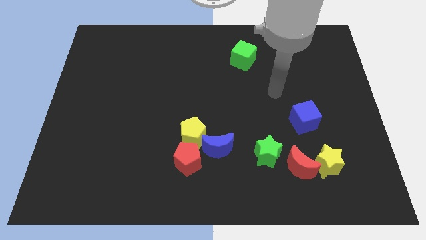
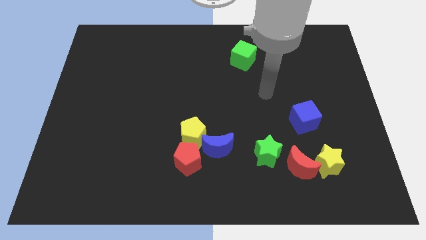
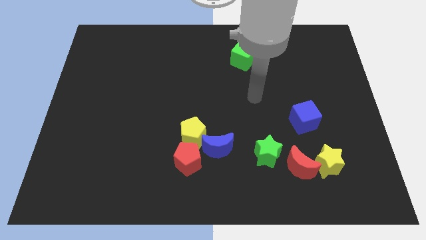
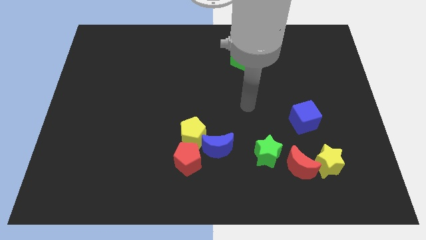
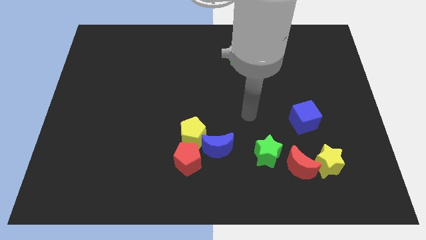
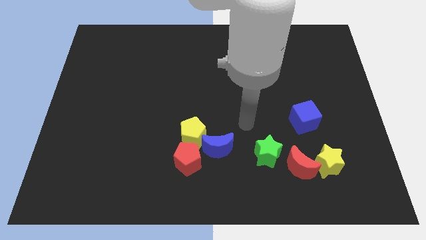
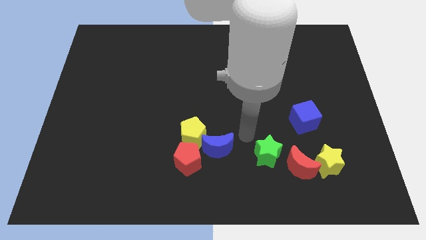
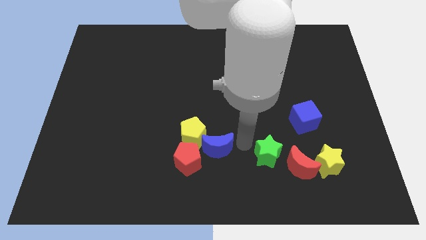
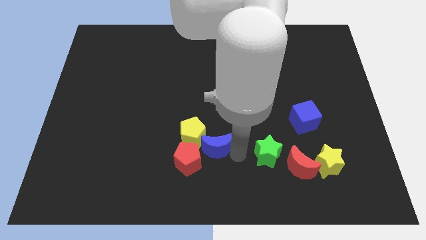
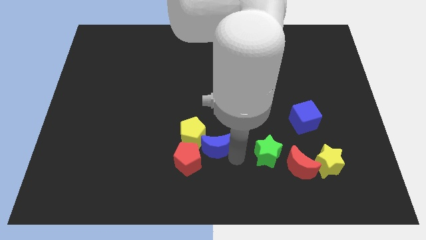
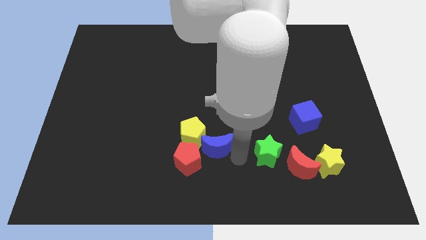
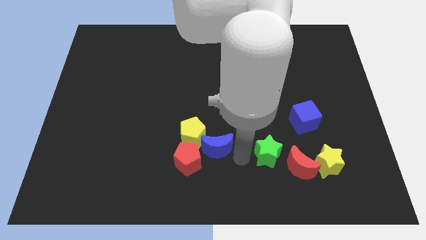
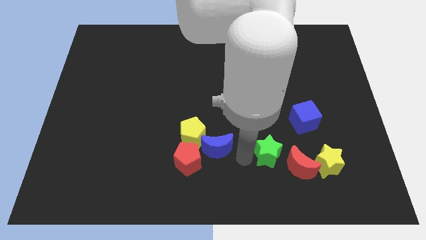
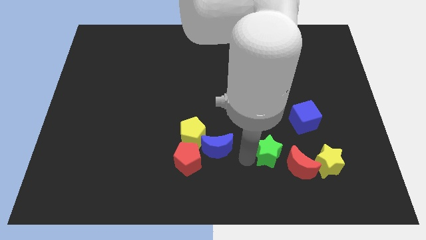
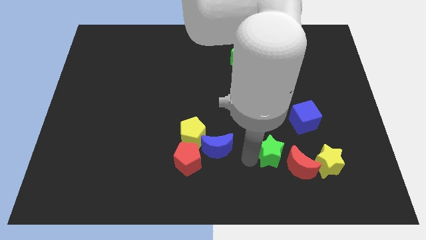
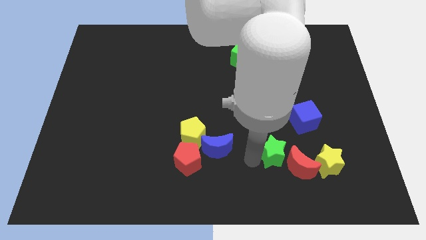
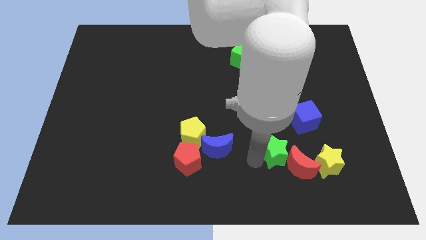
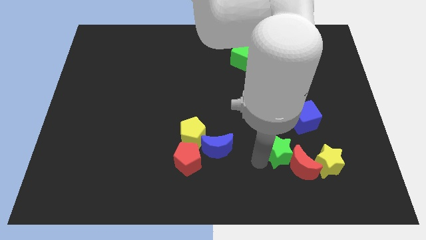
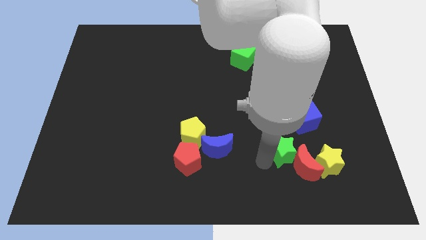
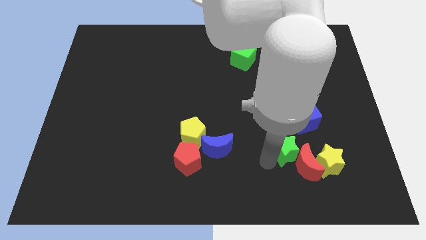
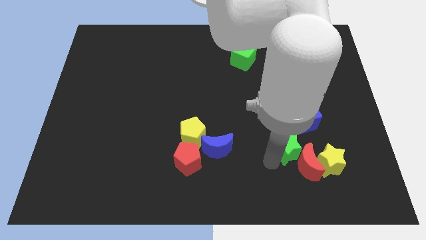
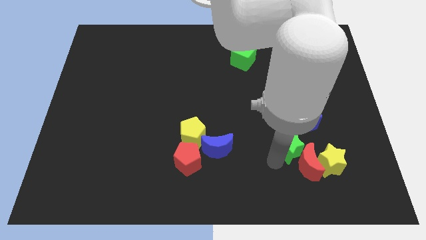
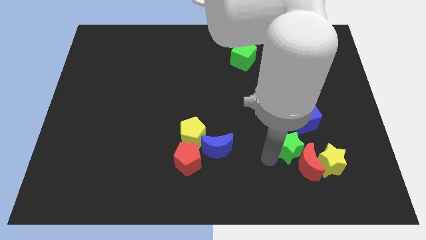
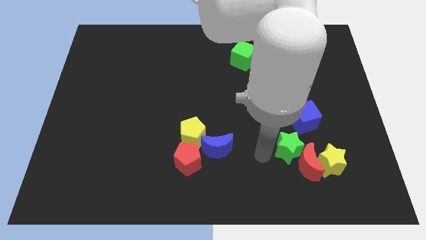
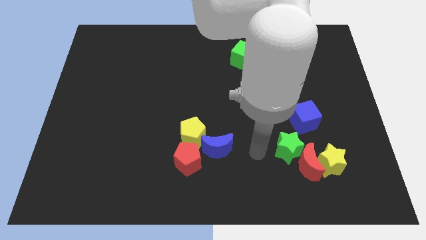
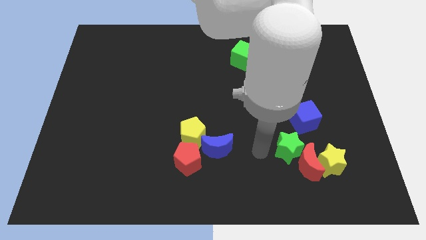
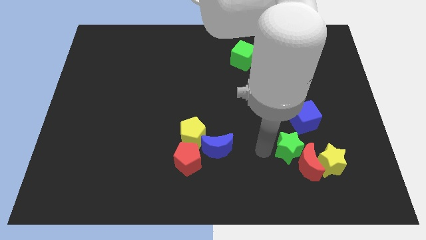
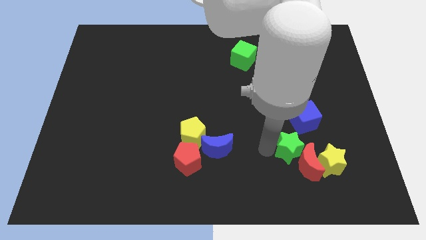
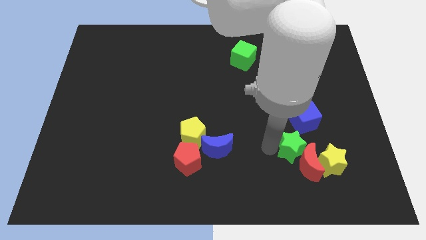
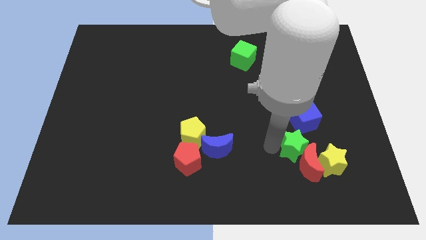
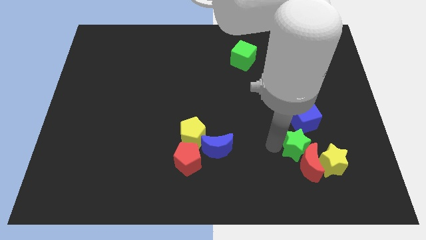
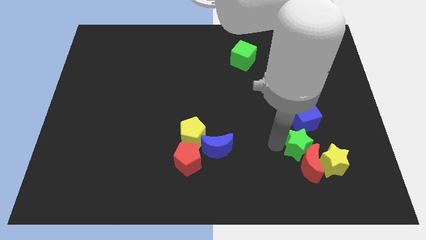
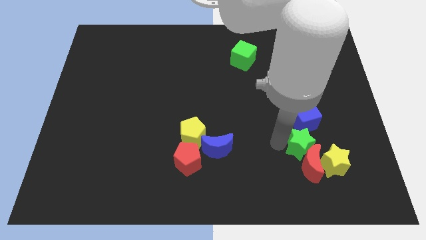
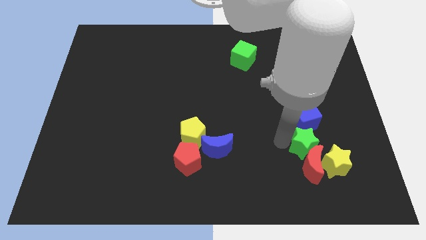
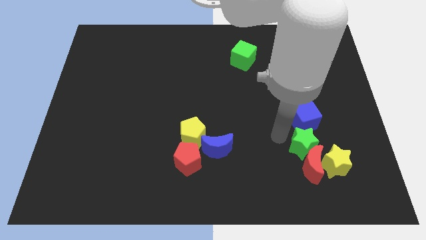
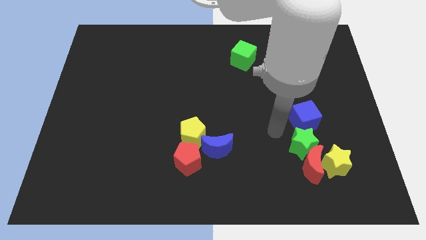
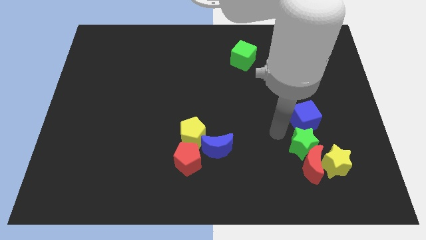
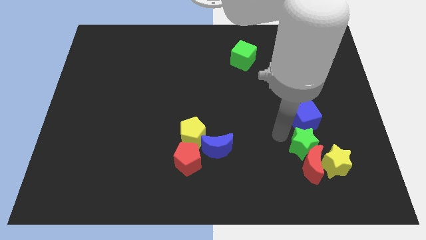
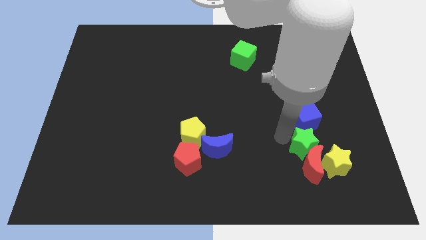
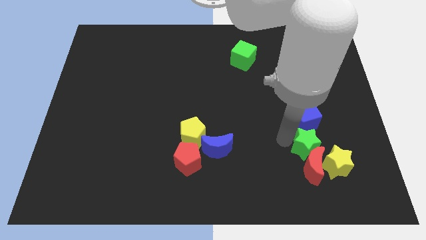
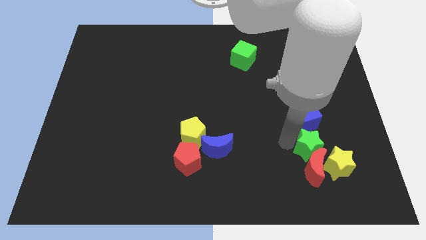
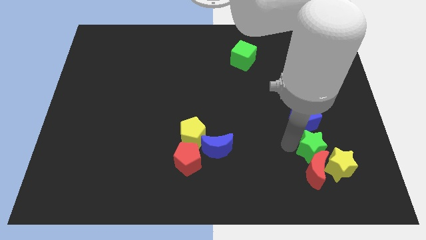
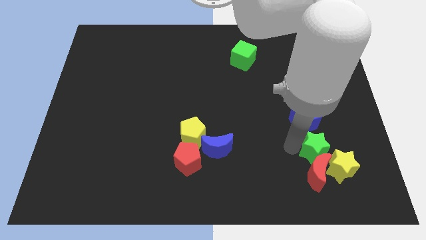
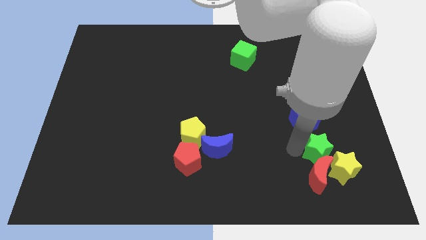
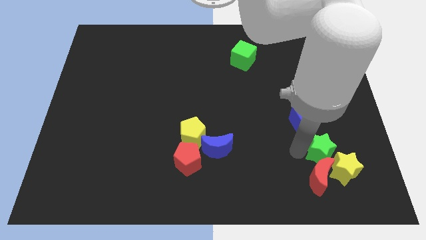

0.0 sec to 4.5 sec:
put the green star to the yellow star

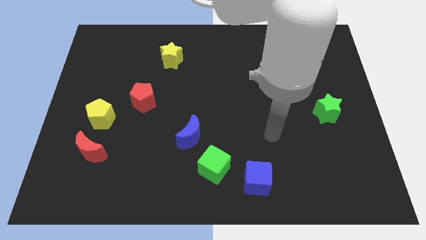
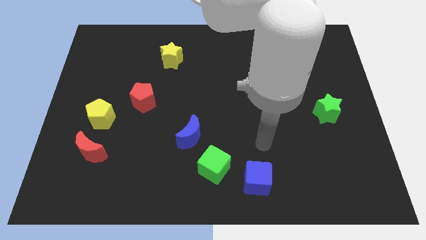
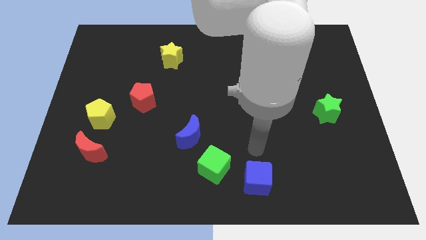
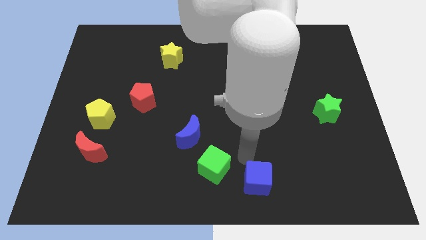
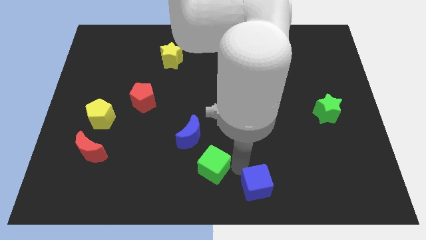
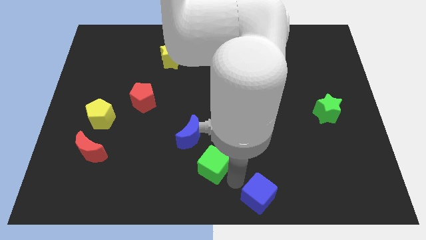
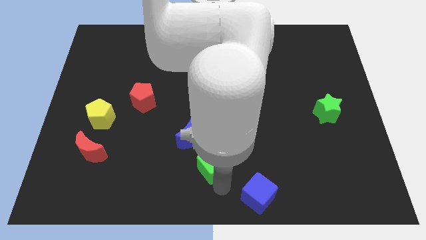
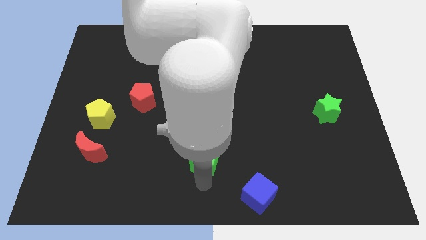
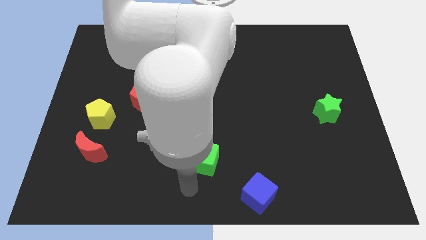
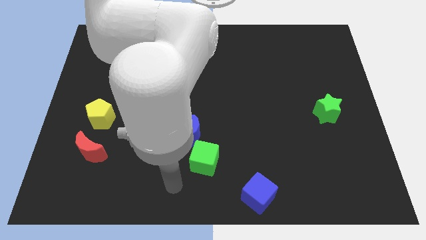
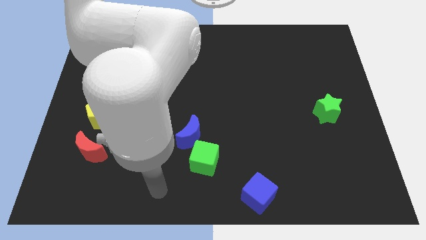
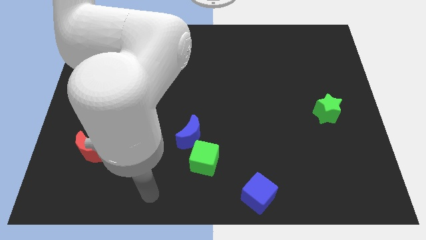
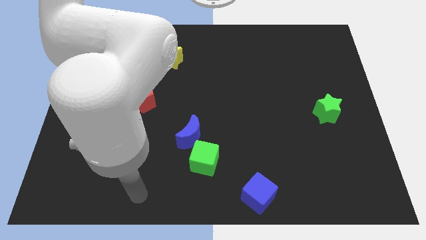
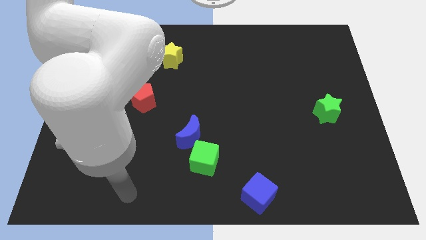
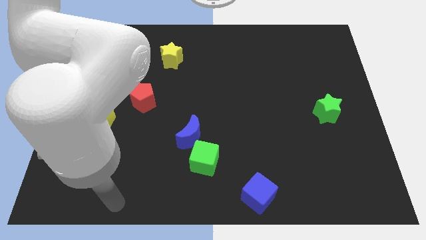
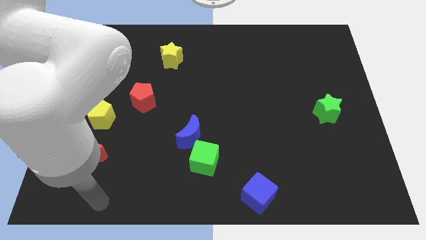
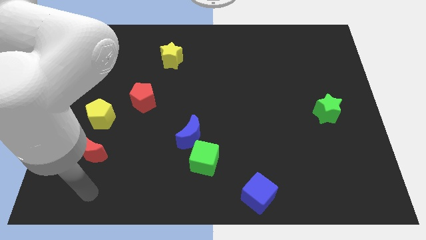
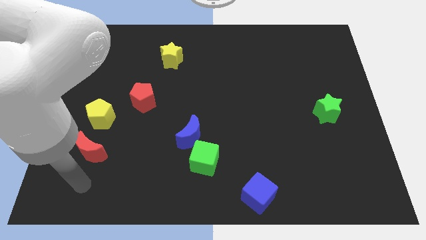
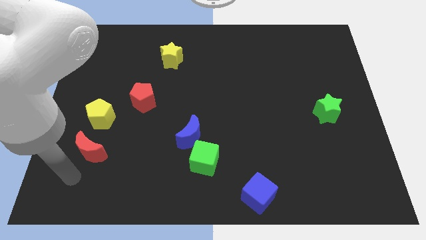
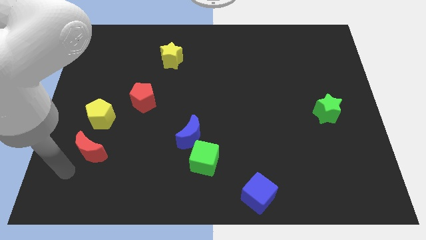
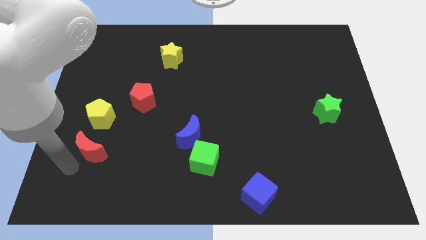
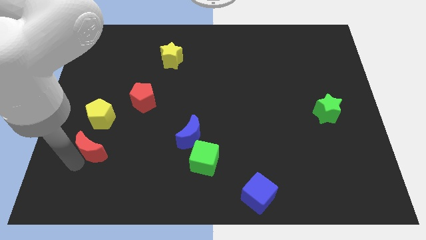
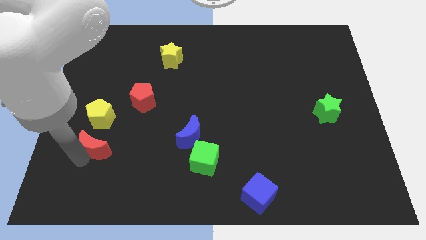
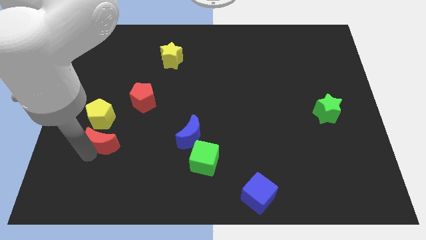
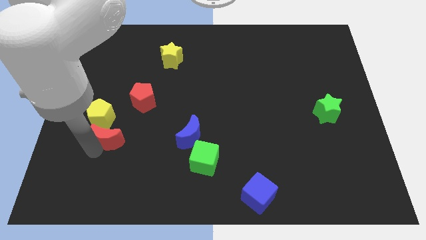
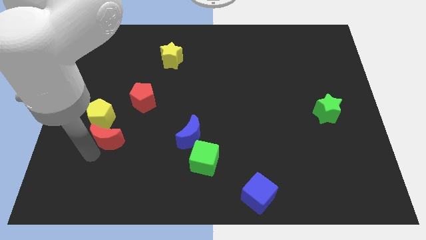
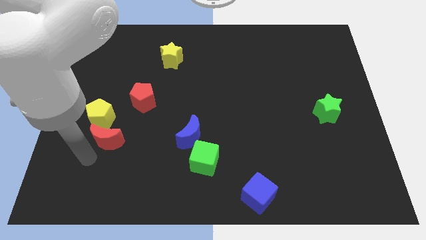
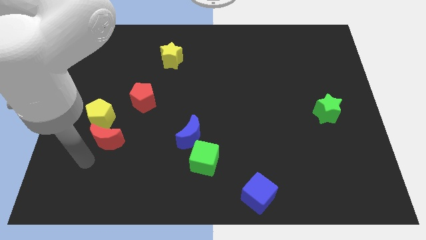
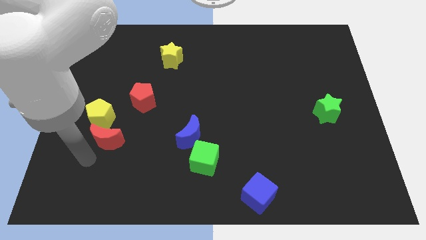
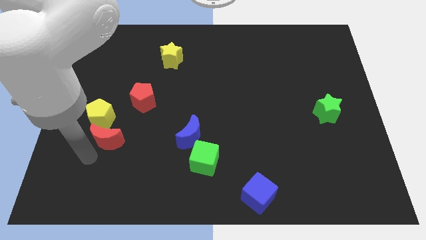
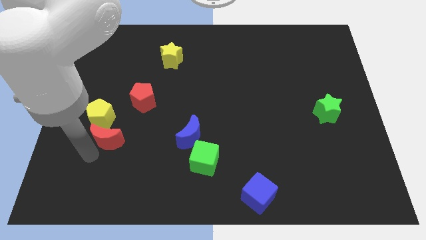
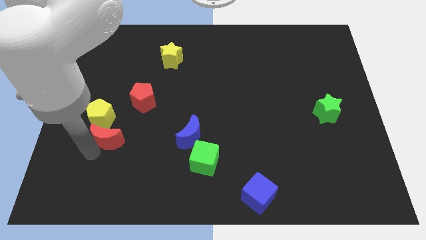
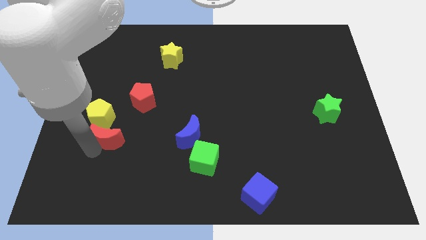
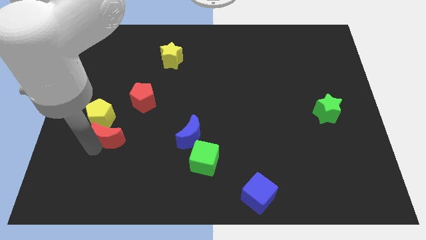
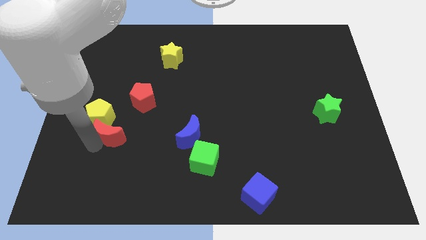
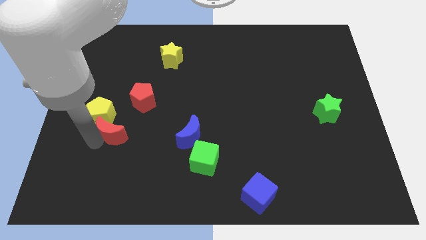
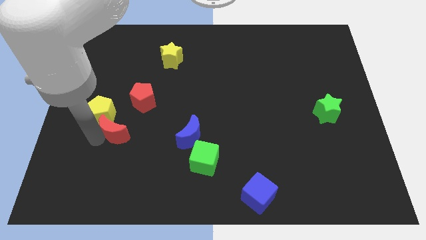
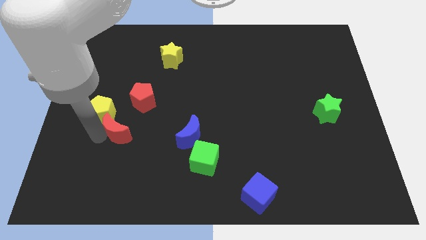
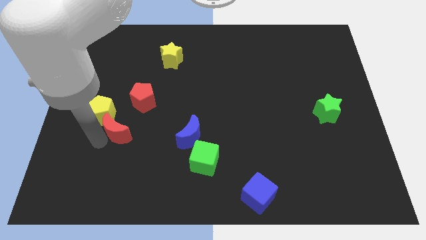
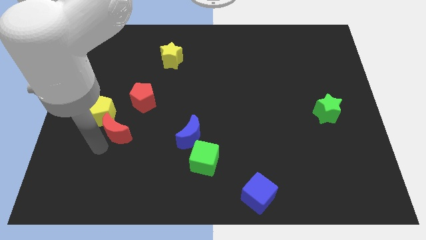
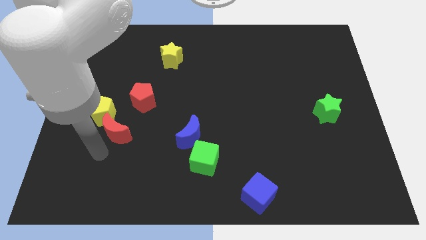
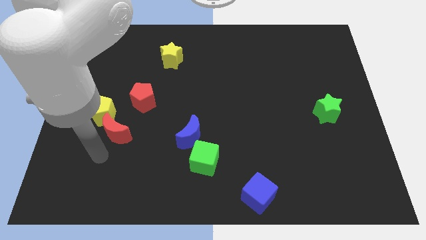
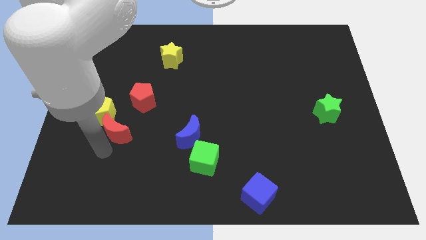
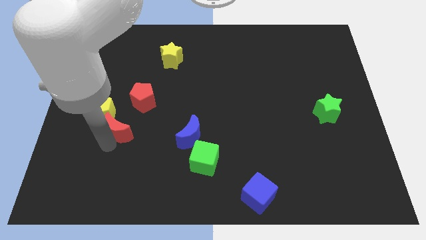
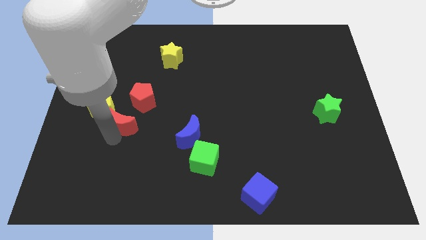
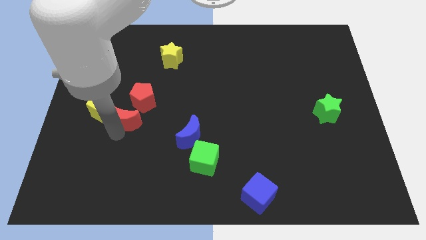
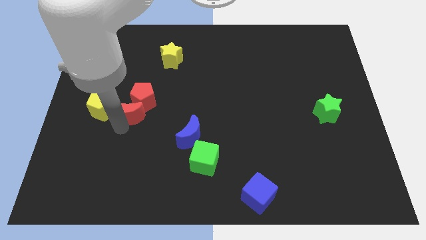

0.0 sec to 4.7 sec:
move the red moon towards the red pentagon
